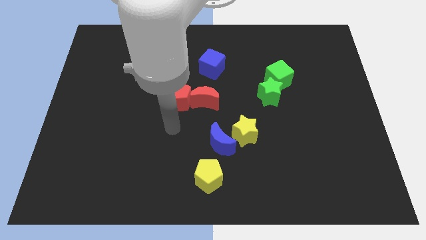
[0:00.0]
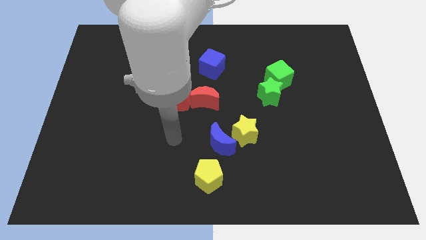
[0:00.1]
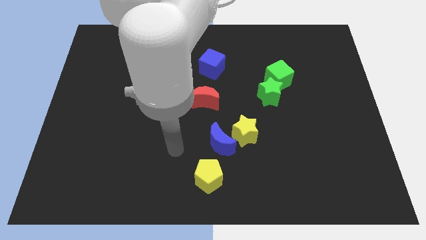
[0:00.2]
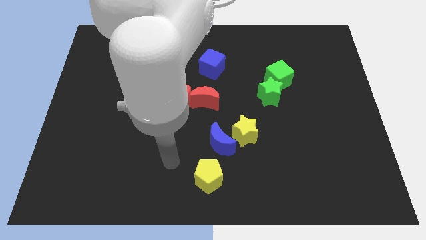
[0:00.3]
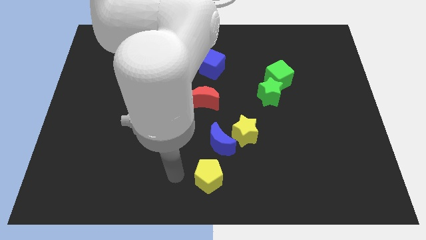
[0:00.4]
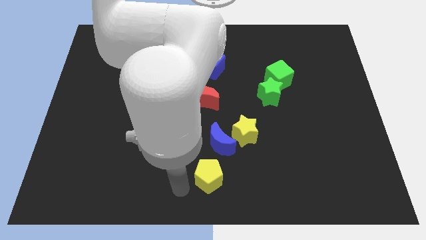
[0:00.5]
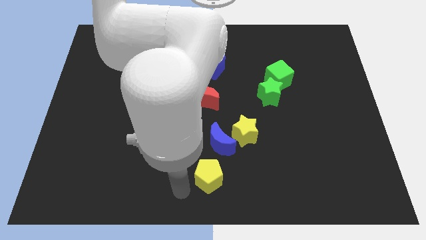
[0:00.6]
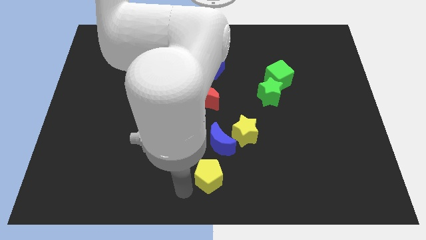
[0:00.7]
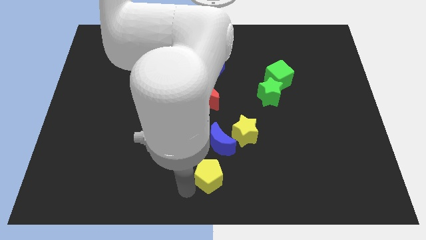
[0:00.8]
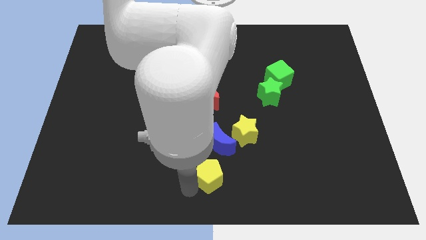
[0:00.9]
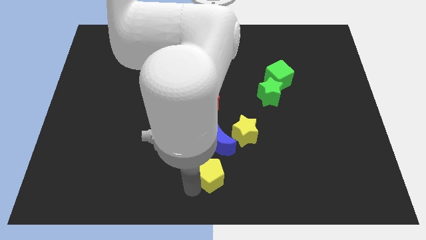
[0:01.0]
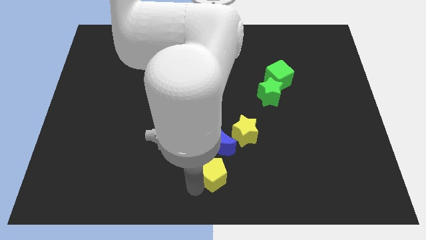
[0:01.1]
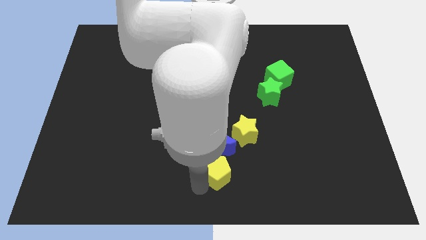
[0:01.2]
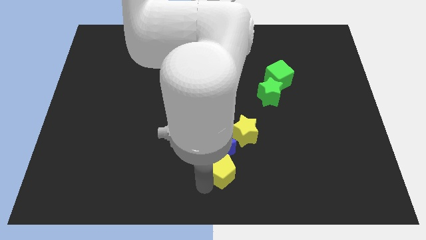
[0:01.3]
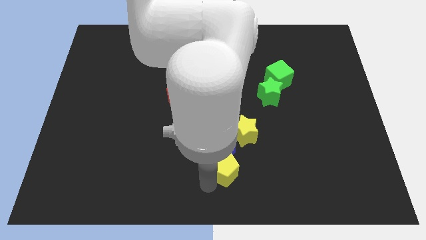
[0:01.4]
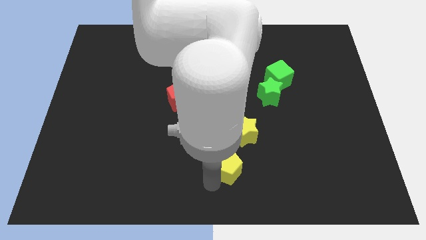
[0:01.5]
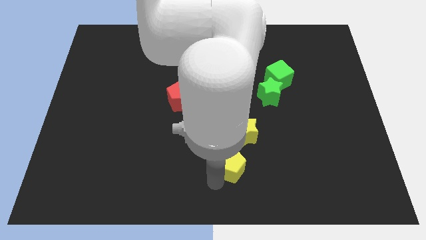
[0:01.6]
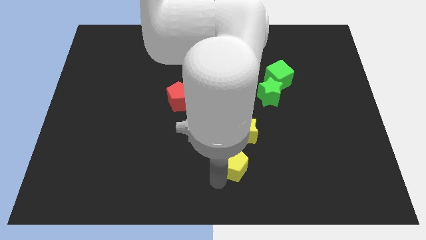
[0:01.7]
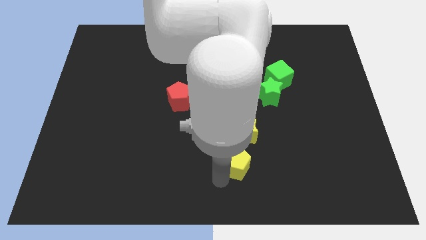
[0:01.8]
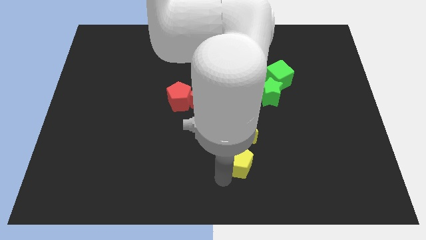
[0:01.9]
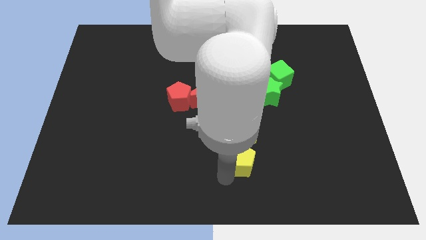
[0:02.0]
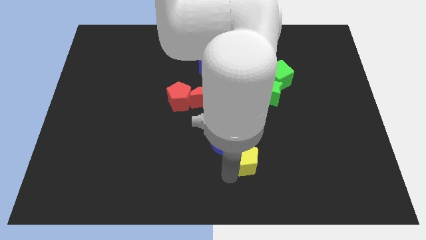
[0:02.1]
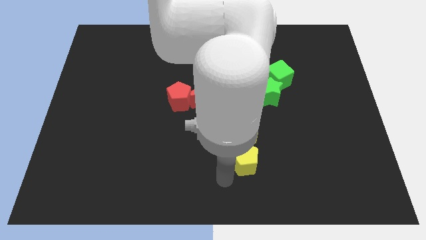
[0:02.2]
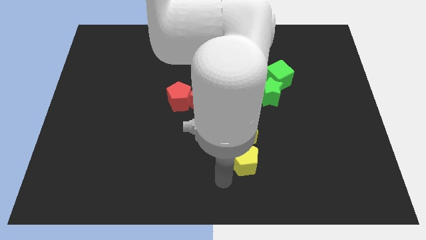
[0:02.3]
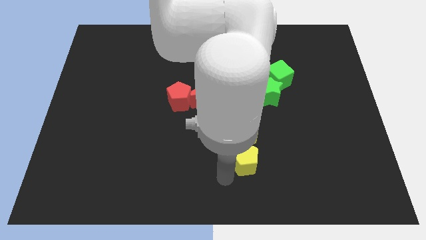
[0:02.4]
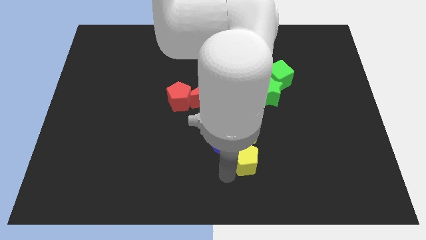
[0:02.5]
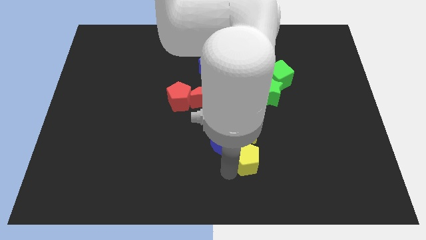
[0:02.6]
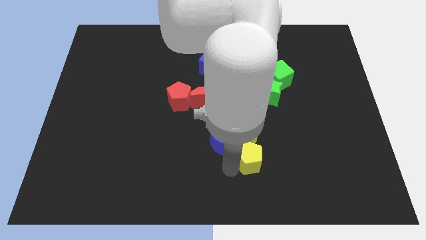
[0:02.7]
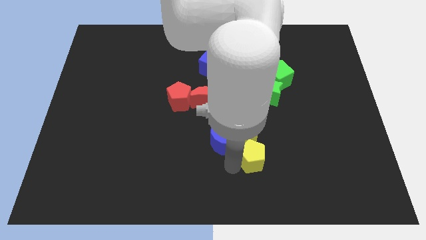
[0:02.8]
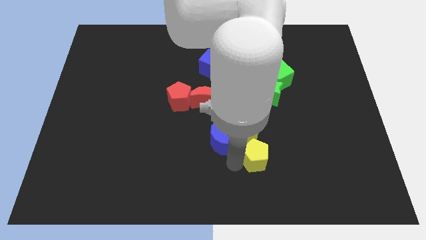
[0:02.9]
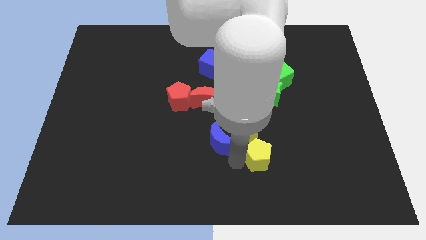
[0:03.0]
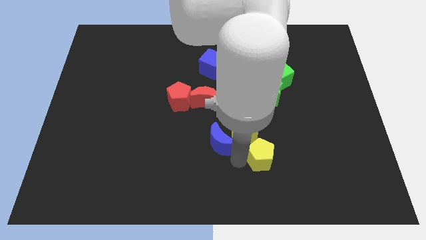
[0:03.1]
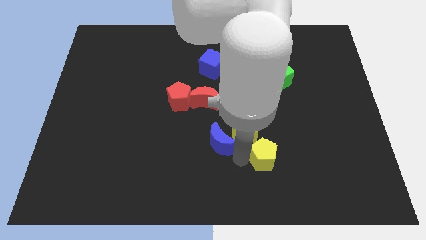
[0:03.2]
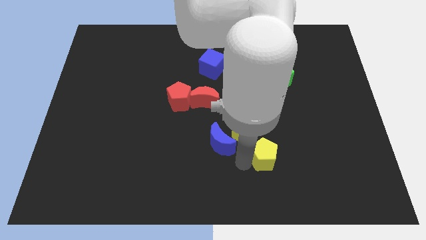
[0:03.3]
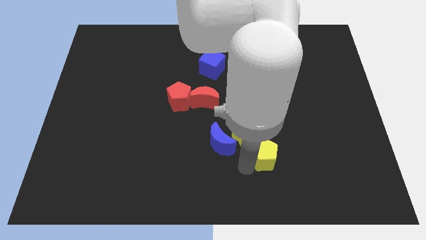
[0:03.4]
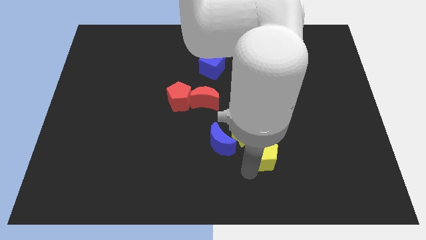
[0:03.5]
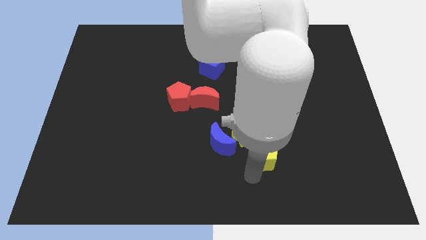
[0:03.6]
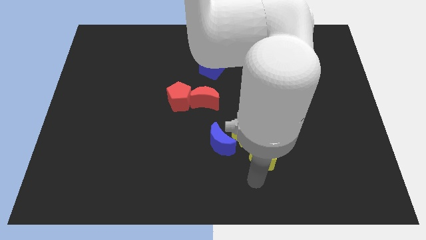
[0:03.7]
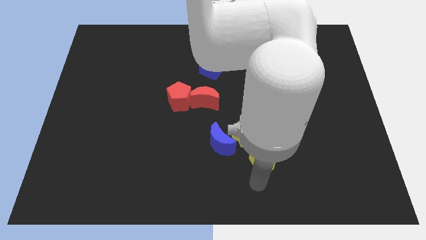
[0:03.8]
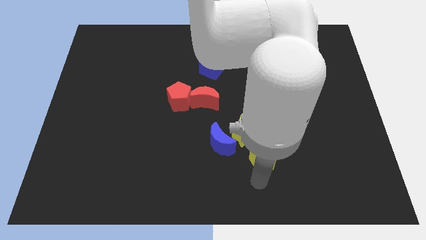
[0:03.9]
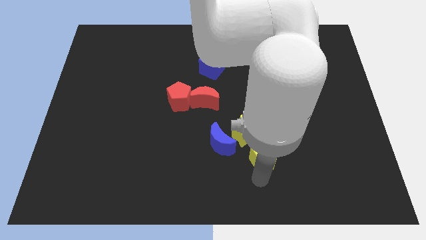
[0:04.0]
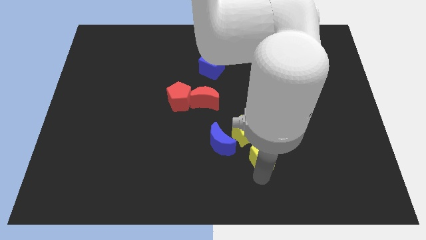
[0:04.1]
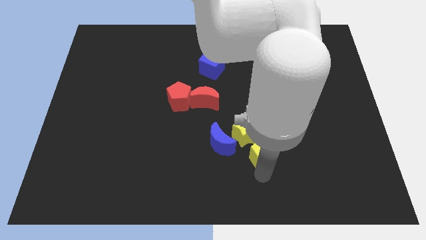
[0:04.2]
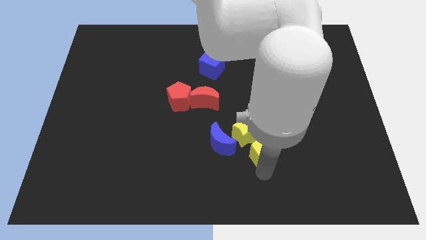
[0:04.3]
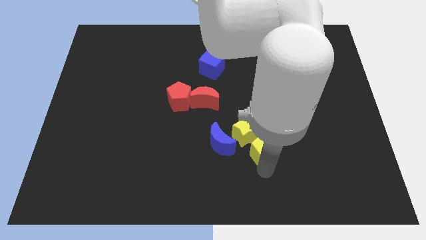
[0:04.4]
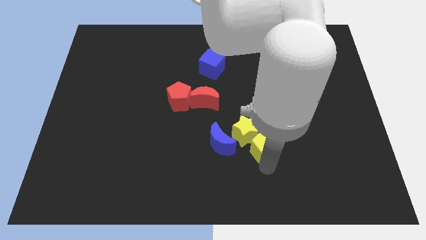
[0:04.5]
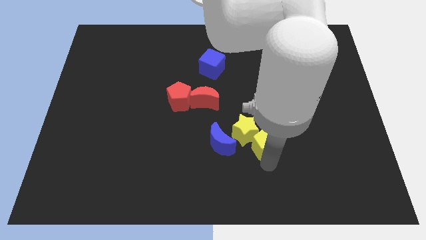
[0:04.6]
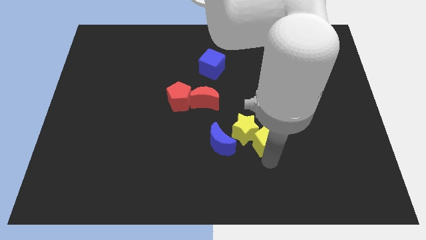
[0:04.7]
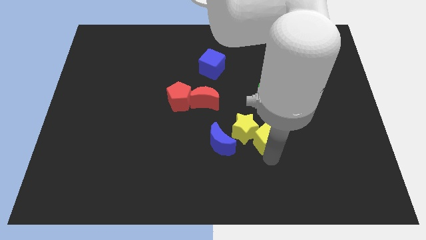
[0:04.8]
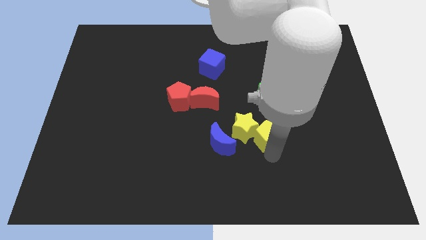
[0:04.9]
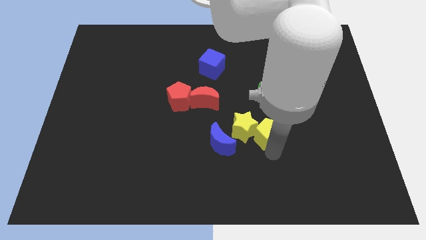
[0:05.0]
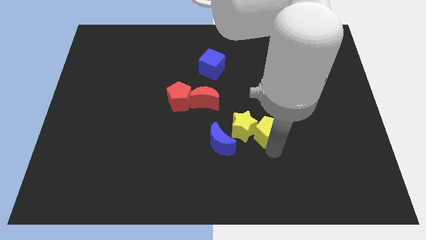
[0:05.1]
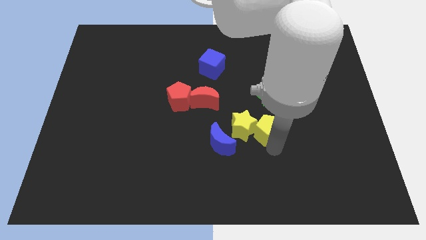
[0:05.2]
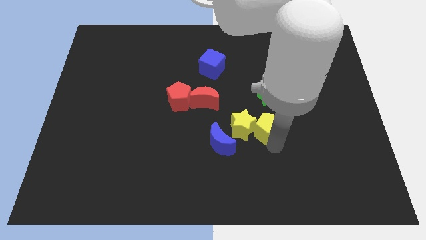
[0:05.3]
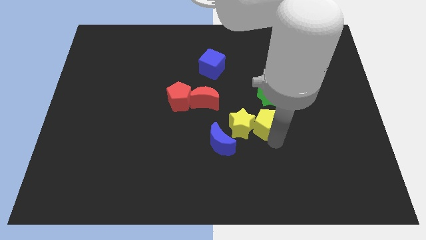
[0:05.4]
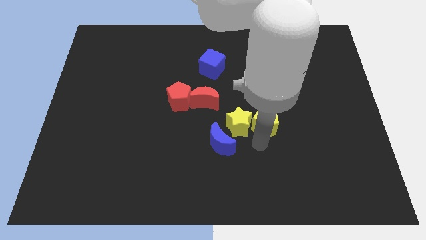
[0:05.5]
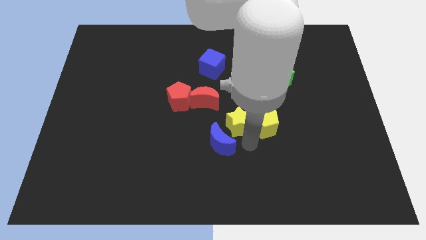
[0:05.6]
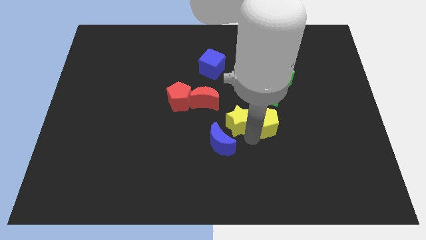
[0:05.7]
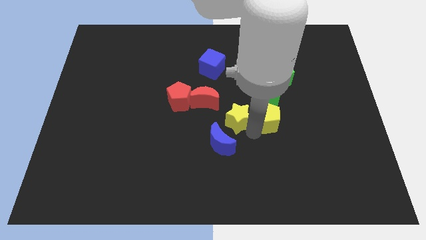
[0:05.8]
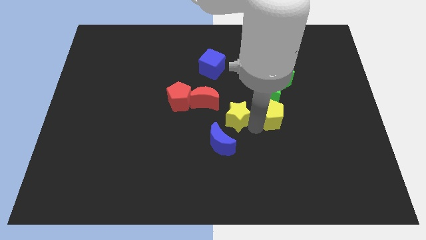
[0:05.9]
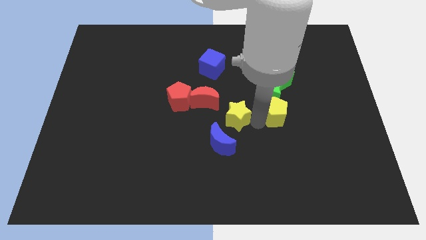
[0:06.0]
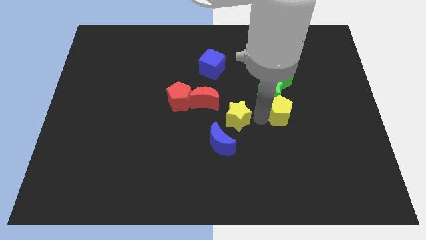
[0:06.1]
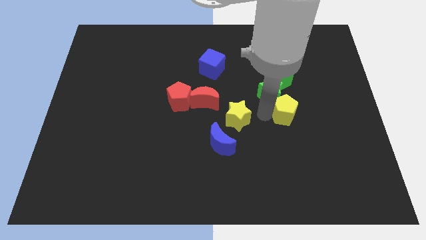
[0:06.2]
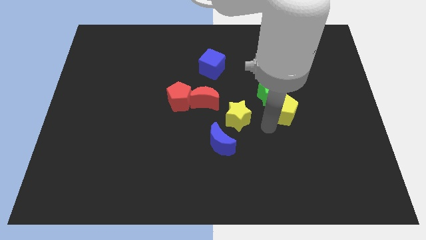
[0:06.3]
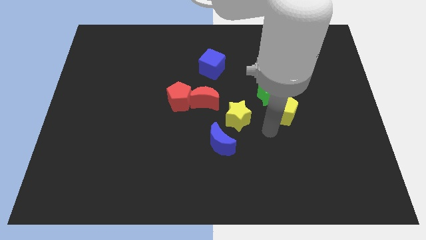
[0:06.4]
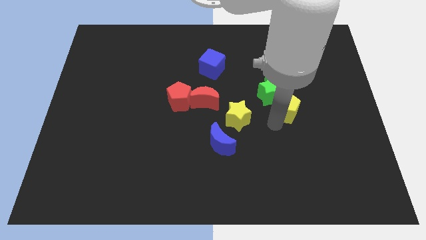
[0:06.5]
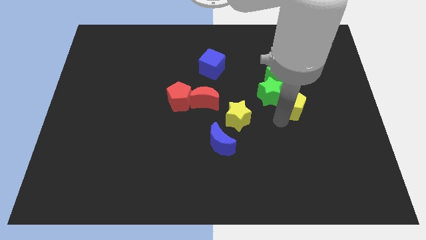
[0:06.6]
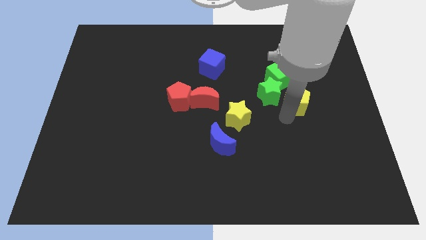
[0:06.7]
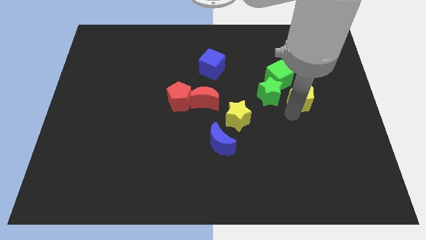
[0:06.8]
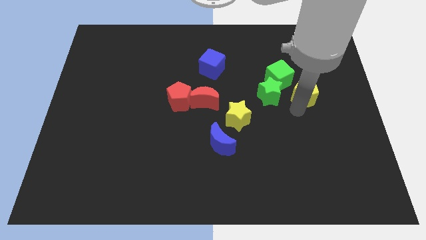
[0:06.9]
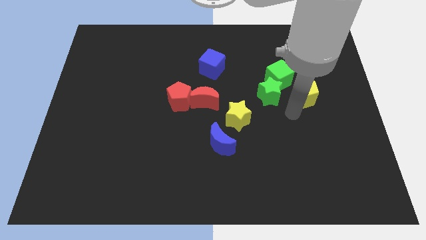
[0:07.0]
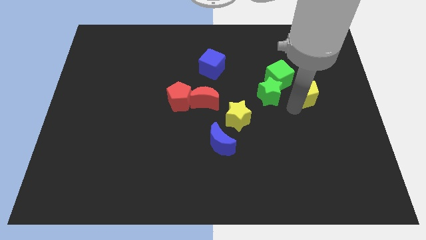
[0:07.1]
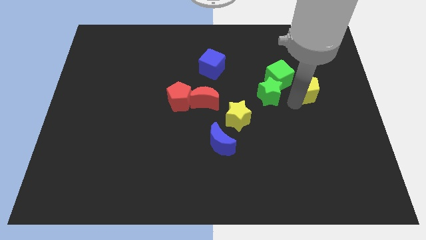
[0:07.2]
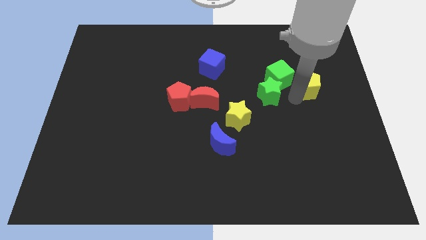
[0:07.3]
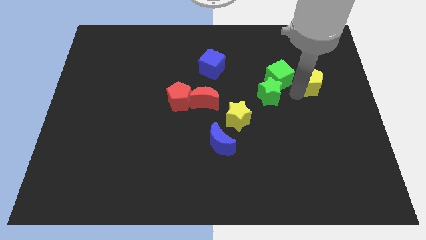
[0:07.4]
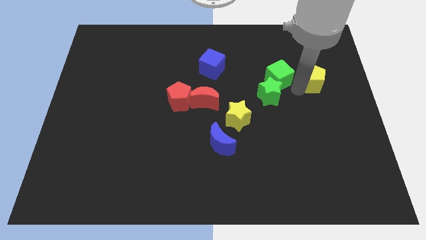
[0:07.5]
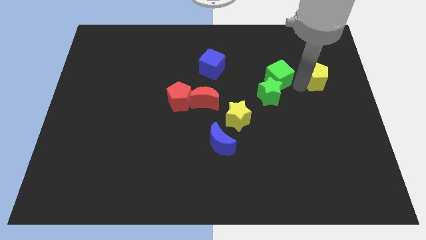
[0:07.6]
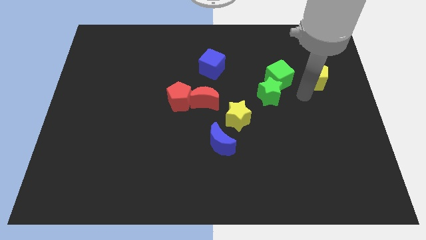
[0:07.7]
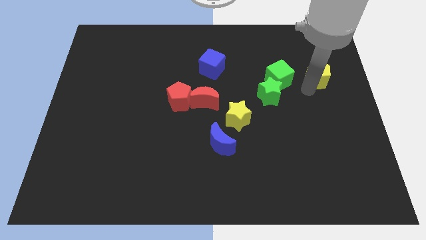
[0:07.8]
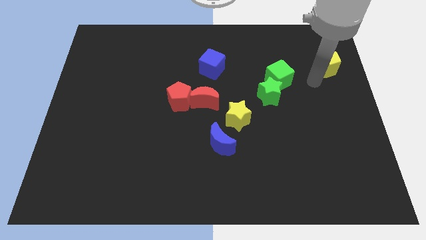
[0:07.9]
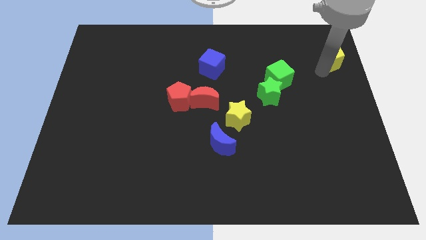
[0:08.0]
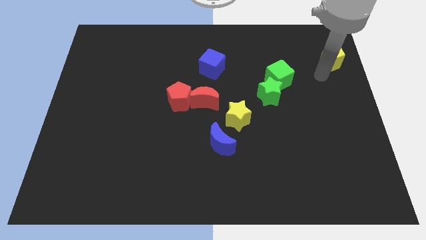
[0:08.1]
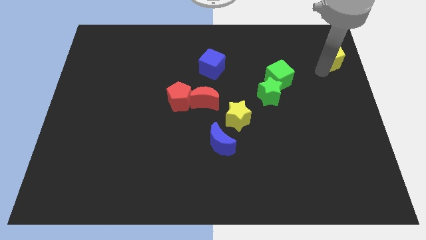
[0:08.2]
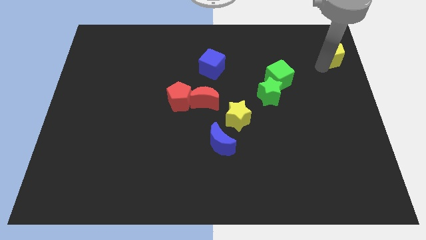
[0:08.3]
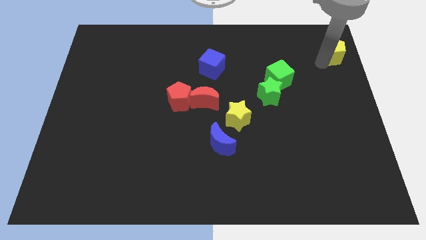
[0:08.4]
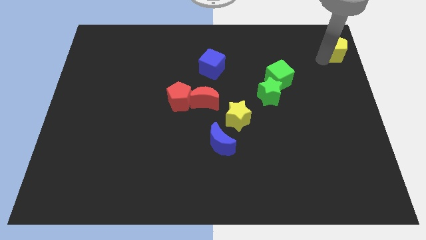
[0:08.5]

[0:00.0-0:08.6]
slide the yellow pentagon to the top right of the board
